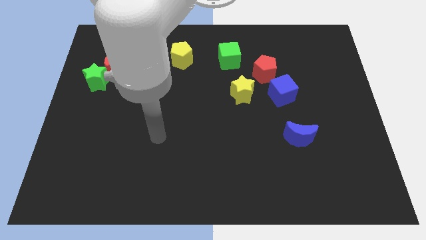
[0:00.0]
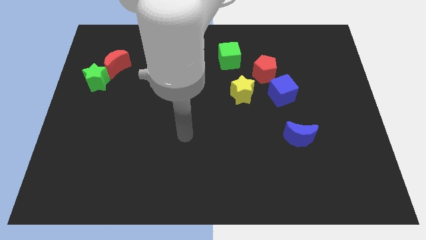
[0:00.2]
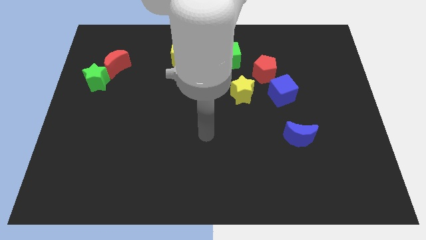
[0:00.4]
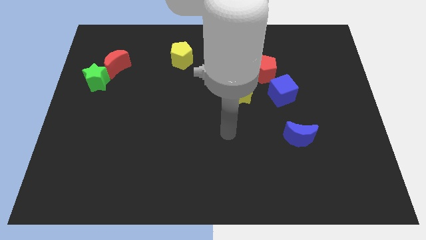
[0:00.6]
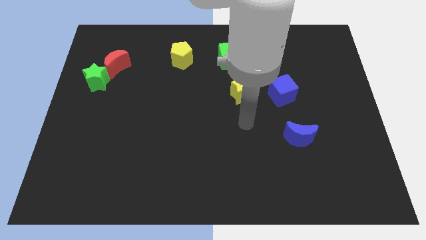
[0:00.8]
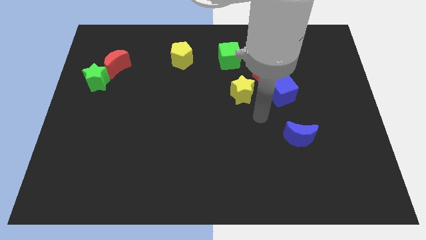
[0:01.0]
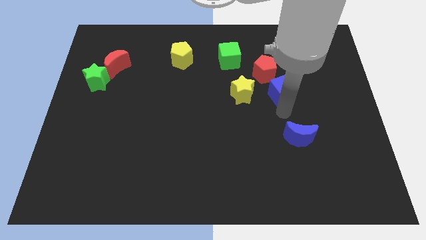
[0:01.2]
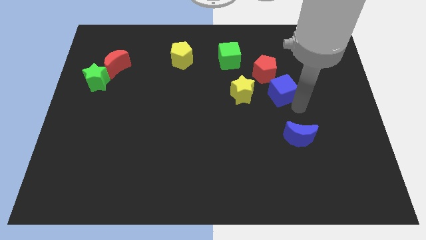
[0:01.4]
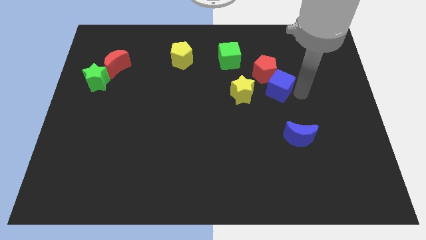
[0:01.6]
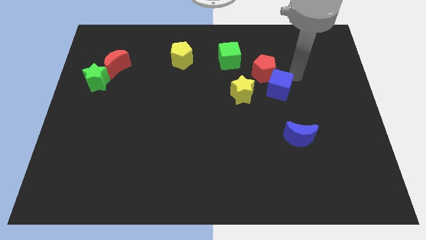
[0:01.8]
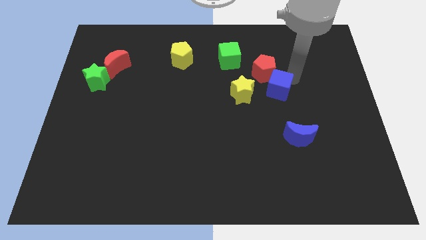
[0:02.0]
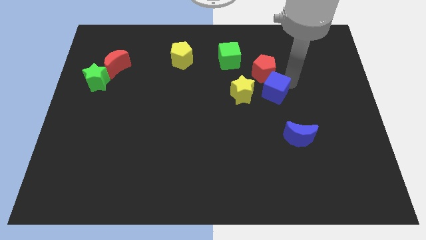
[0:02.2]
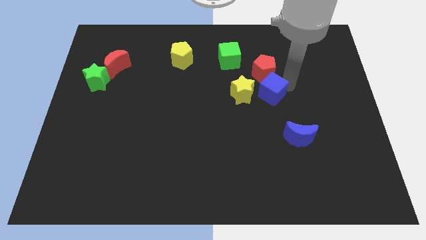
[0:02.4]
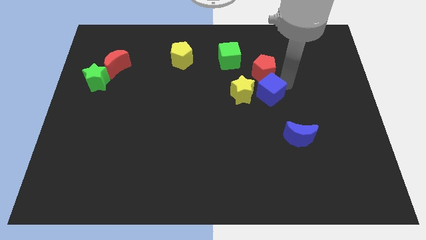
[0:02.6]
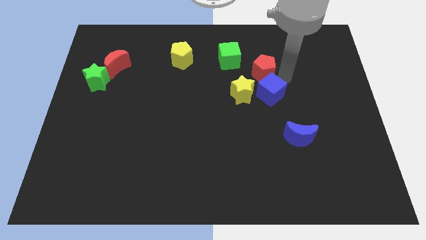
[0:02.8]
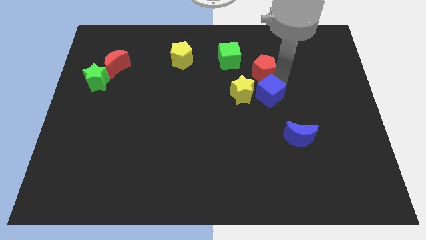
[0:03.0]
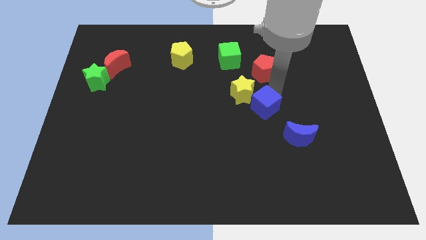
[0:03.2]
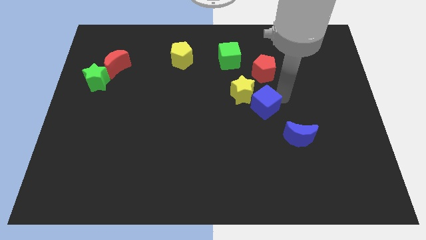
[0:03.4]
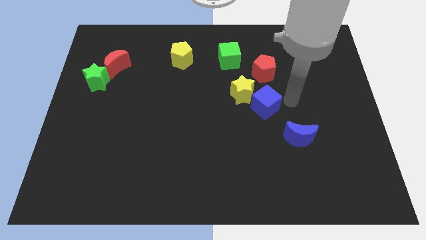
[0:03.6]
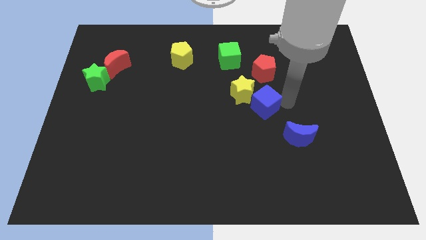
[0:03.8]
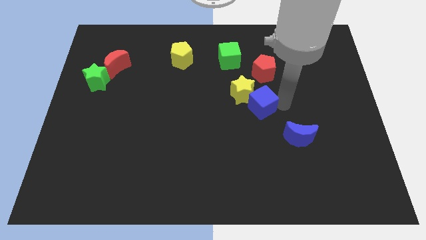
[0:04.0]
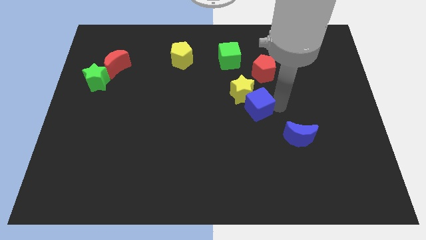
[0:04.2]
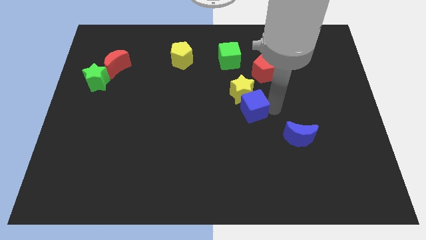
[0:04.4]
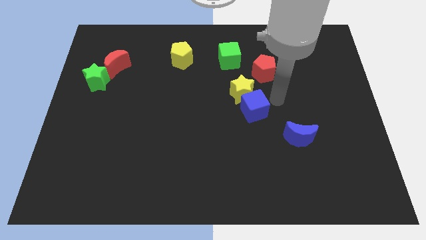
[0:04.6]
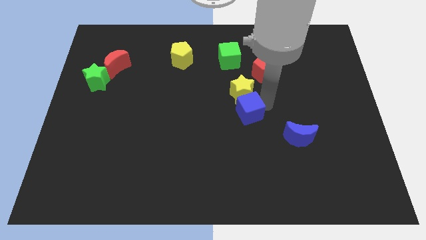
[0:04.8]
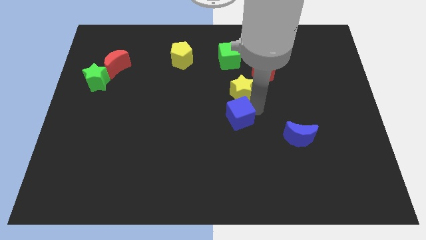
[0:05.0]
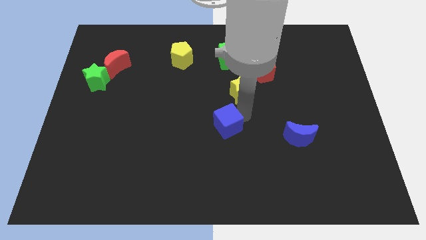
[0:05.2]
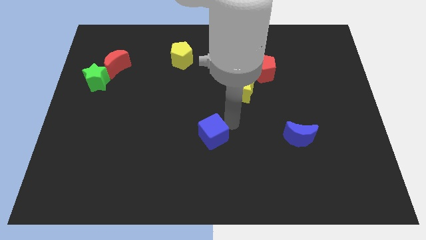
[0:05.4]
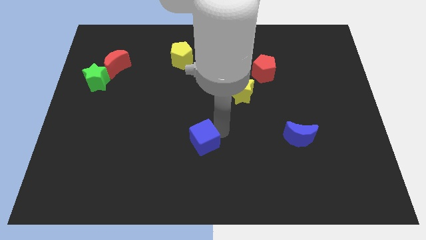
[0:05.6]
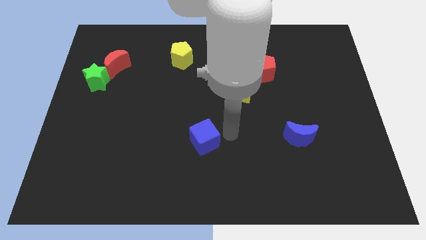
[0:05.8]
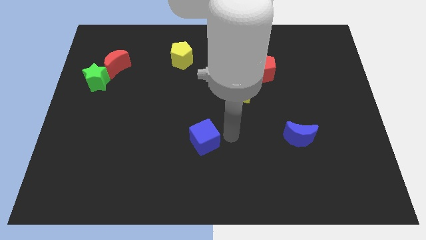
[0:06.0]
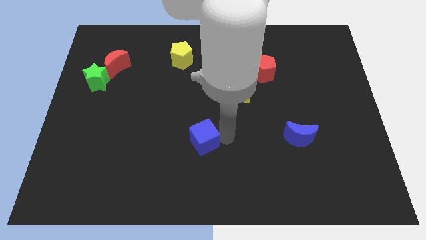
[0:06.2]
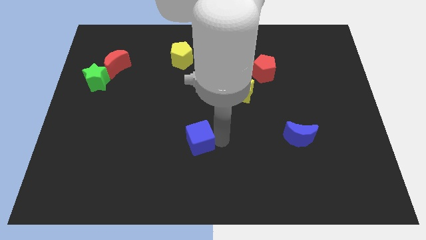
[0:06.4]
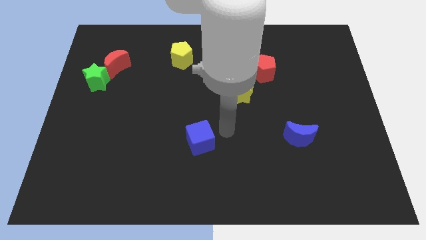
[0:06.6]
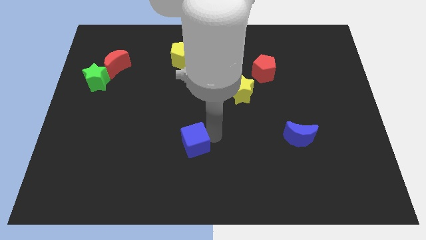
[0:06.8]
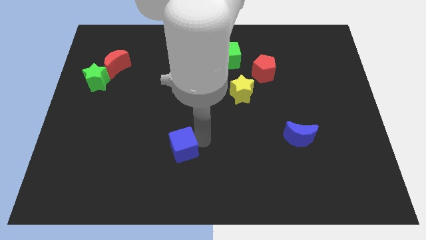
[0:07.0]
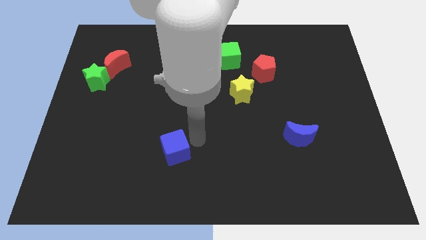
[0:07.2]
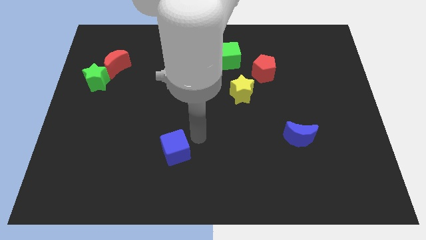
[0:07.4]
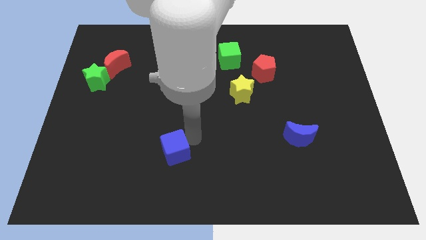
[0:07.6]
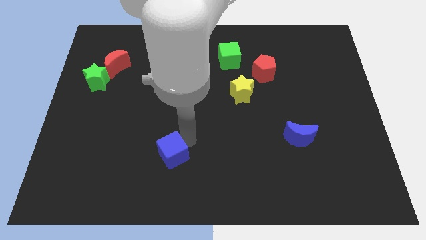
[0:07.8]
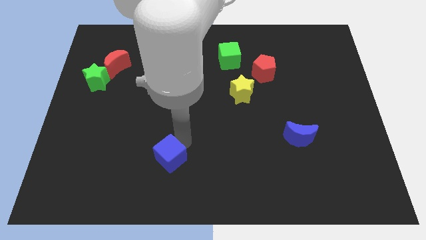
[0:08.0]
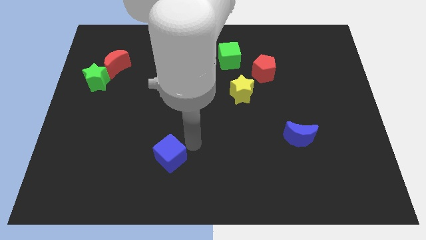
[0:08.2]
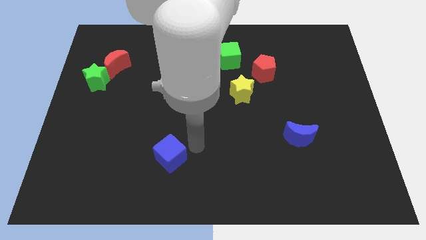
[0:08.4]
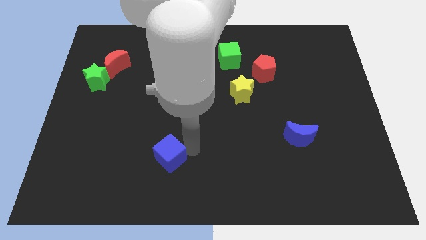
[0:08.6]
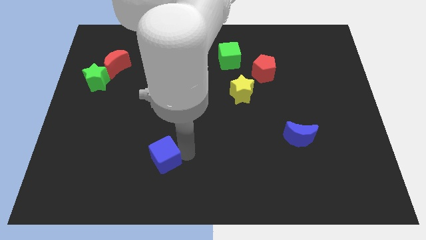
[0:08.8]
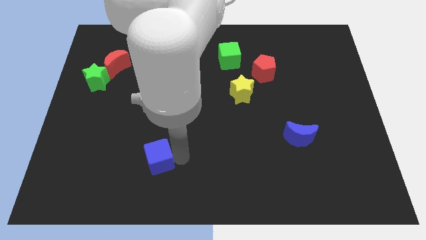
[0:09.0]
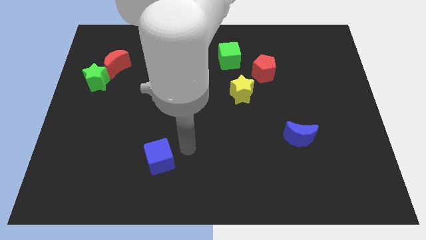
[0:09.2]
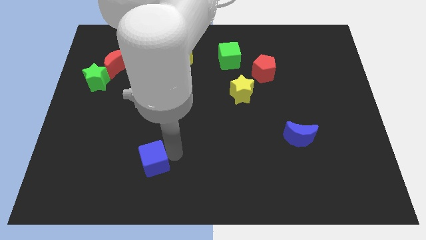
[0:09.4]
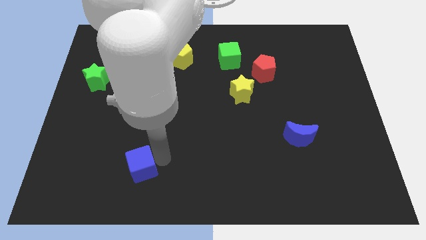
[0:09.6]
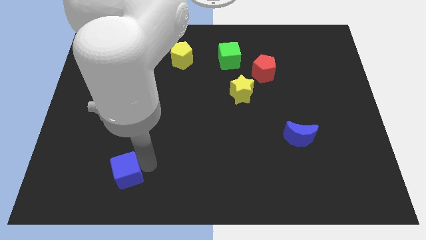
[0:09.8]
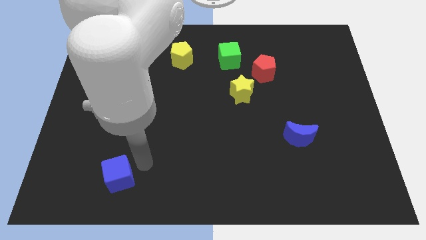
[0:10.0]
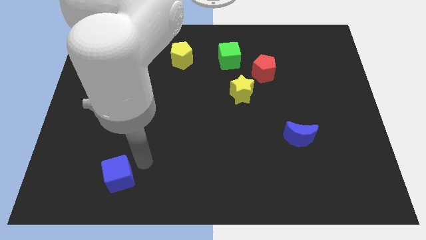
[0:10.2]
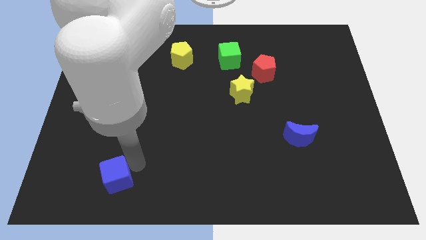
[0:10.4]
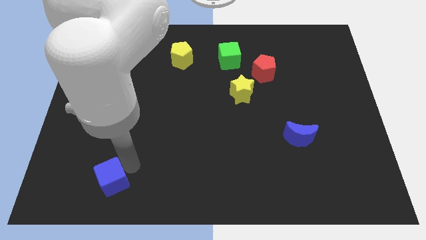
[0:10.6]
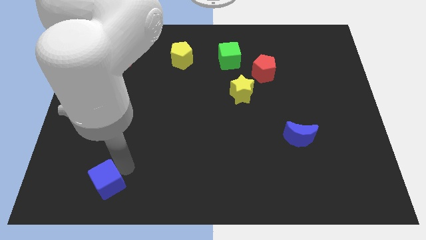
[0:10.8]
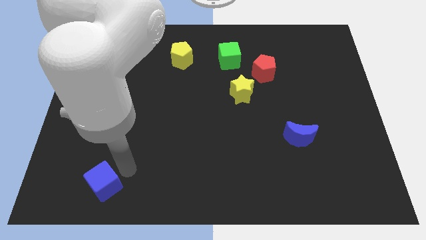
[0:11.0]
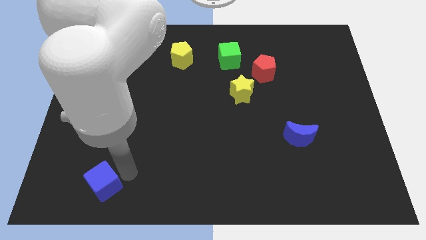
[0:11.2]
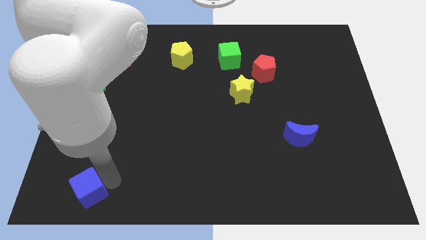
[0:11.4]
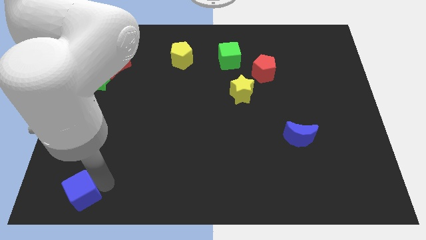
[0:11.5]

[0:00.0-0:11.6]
slide the blue cube to the bottom left

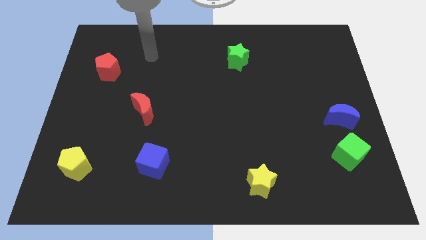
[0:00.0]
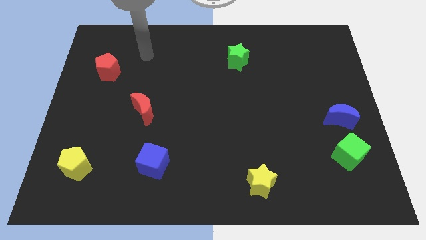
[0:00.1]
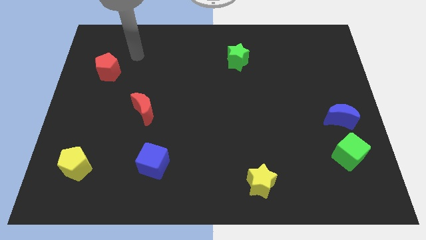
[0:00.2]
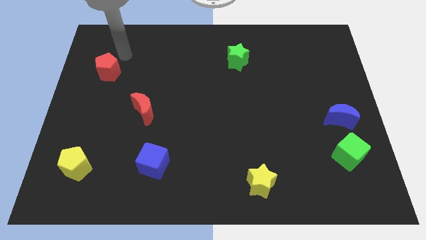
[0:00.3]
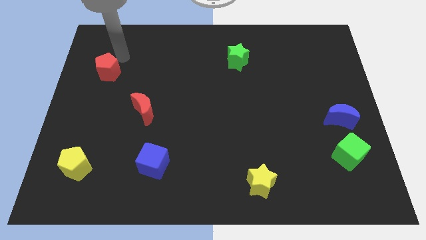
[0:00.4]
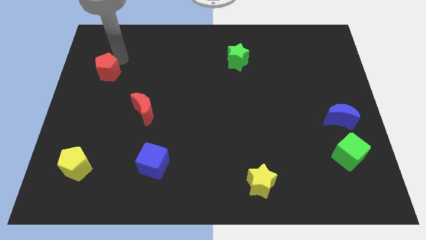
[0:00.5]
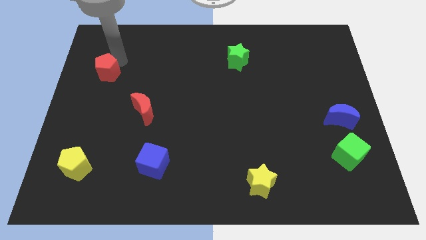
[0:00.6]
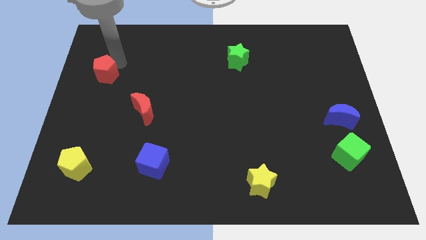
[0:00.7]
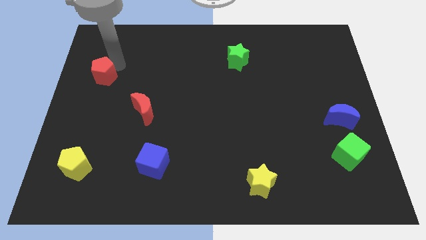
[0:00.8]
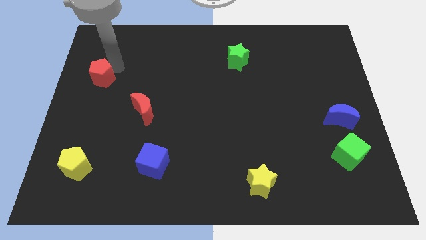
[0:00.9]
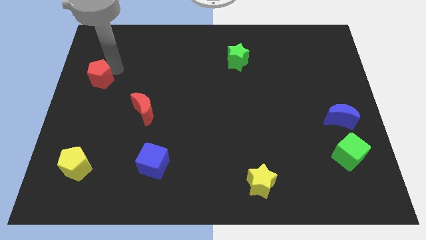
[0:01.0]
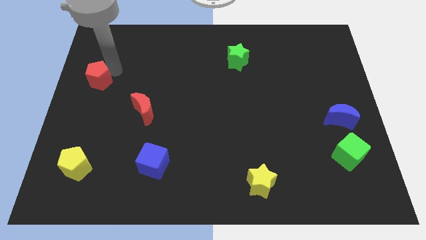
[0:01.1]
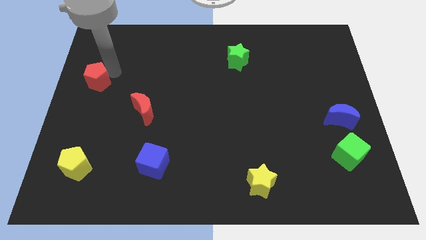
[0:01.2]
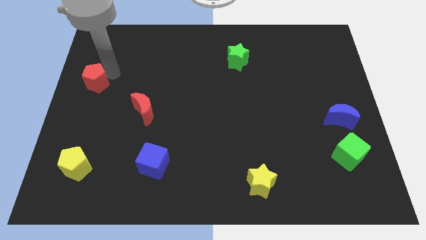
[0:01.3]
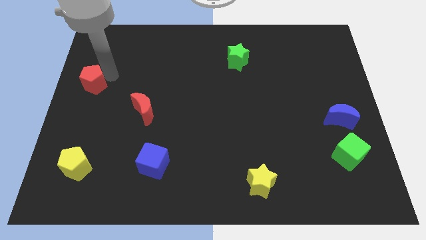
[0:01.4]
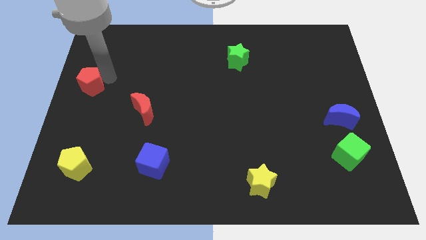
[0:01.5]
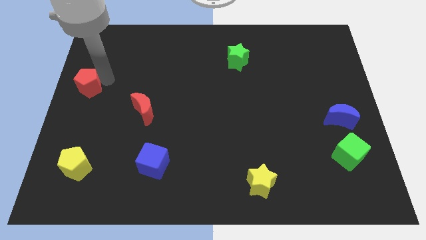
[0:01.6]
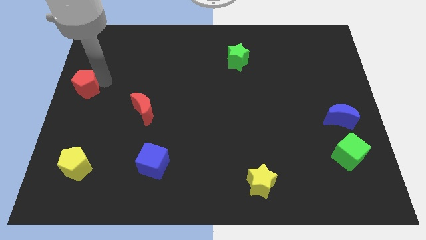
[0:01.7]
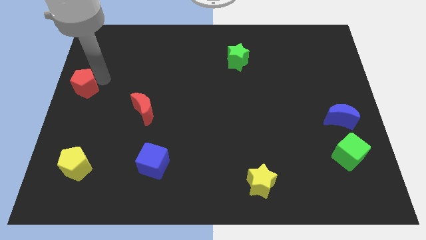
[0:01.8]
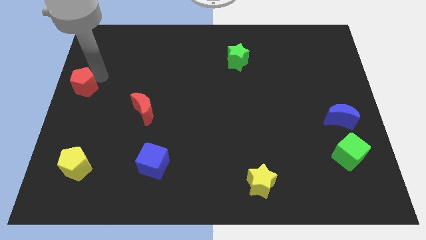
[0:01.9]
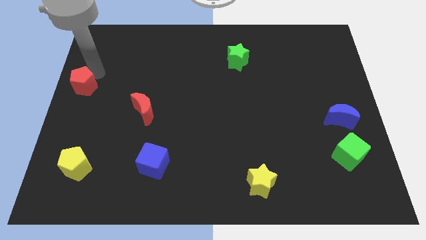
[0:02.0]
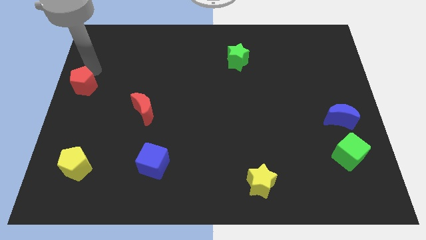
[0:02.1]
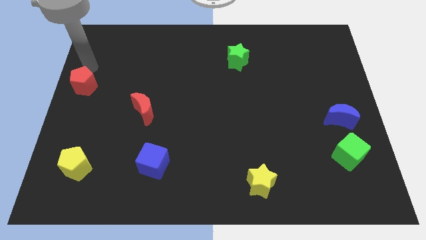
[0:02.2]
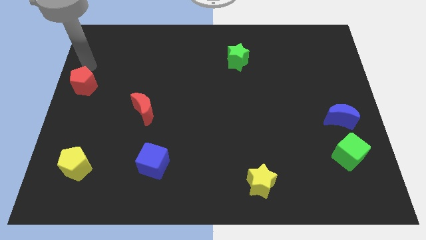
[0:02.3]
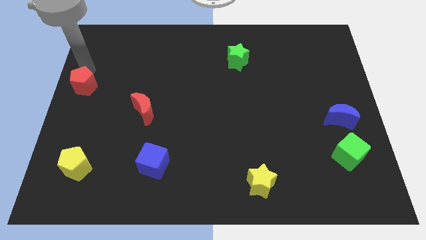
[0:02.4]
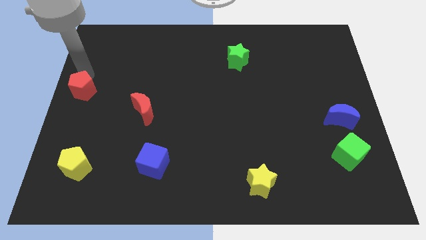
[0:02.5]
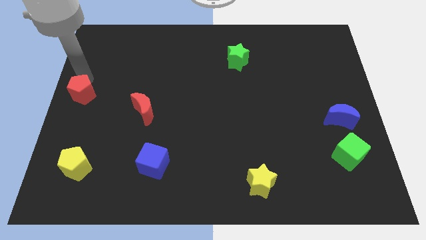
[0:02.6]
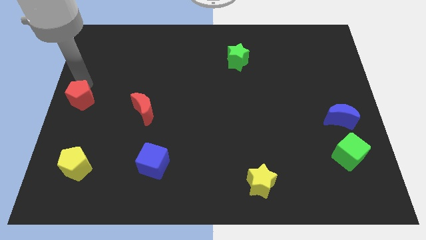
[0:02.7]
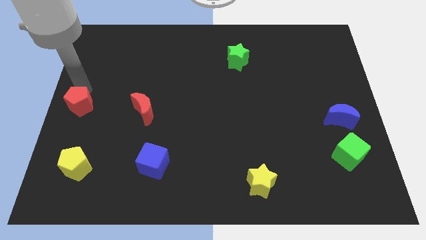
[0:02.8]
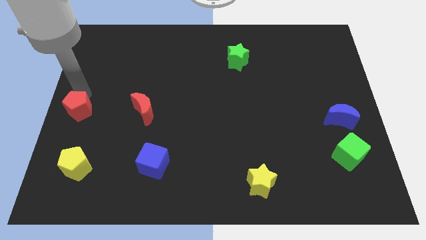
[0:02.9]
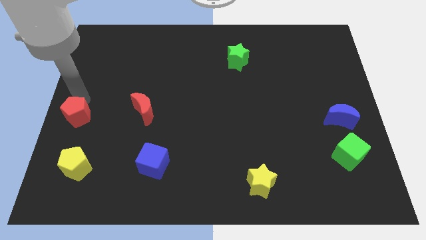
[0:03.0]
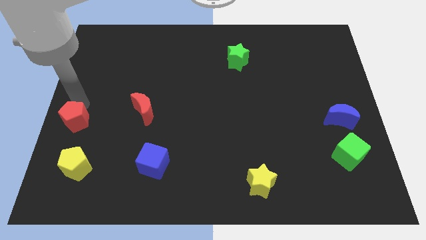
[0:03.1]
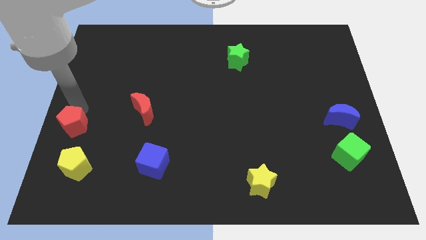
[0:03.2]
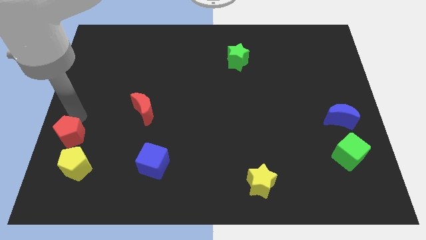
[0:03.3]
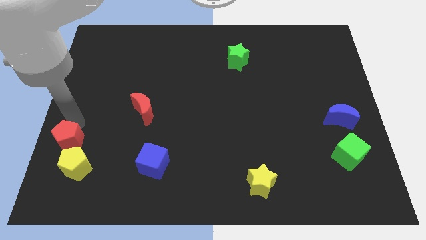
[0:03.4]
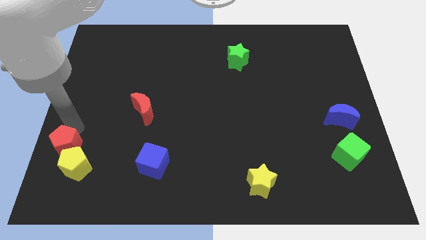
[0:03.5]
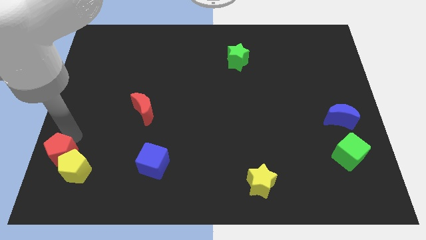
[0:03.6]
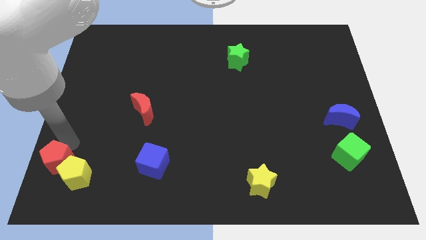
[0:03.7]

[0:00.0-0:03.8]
slide the red pentagon to the bottom left corner
